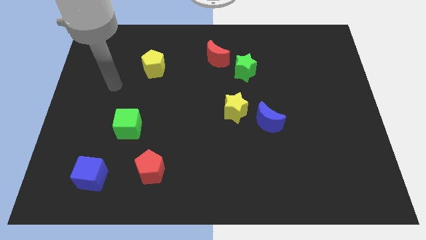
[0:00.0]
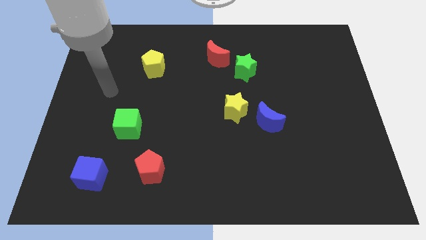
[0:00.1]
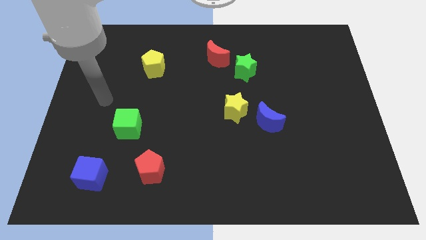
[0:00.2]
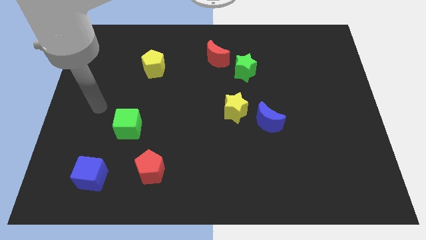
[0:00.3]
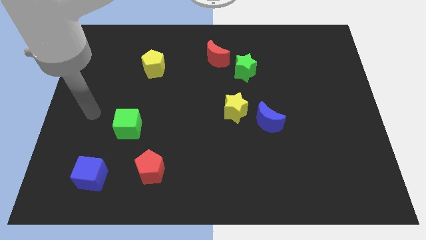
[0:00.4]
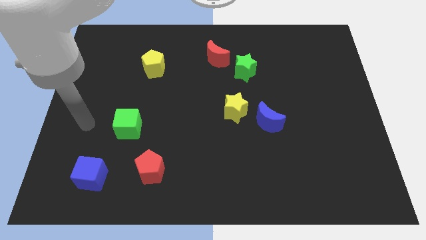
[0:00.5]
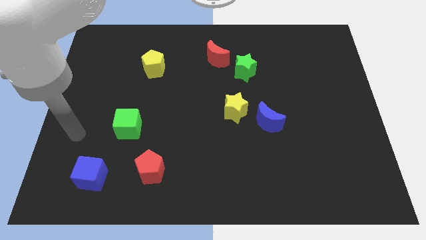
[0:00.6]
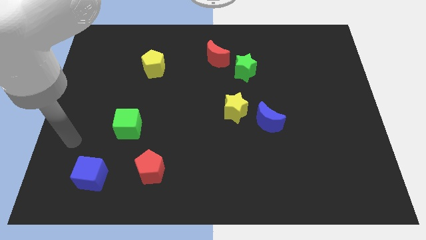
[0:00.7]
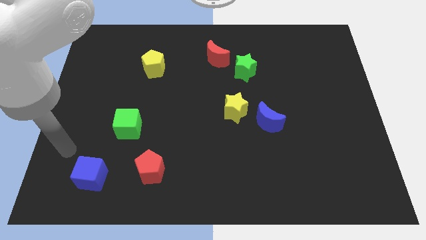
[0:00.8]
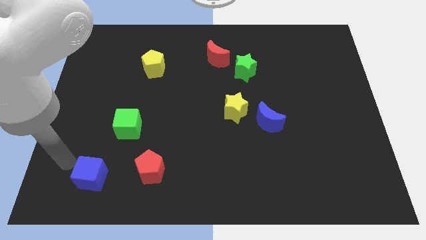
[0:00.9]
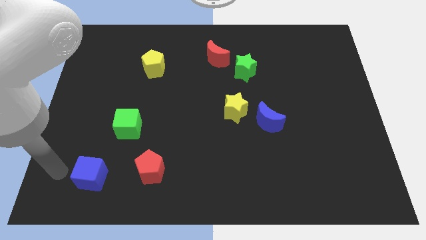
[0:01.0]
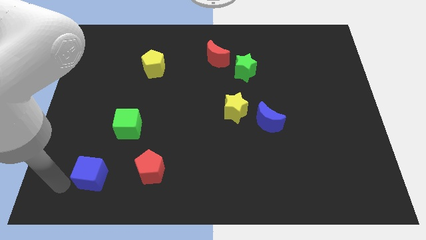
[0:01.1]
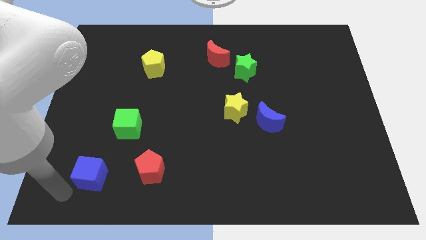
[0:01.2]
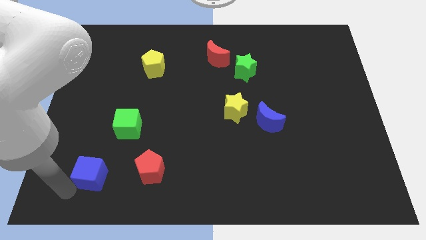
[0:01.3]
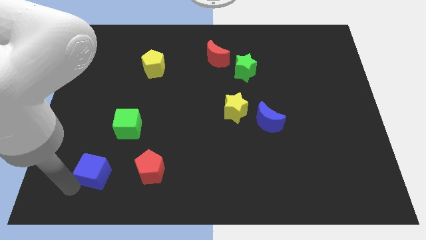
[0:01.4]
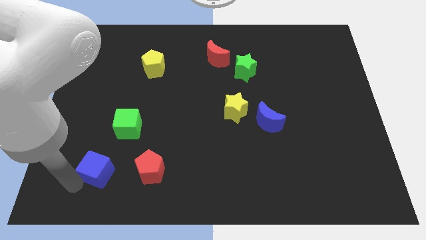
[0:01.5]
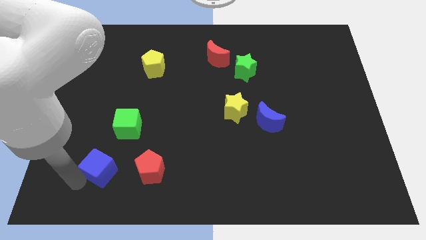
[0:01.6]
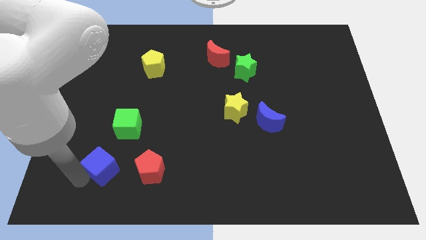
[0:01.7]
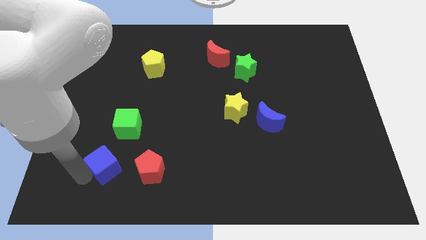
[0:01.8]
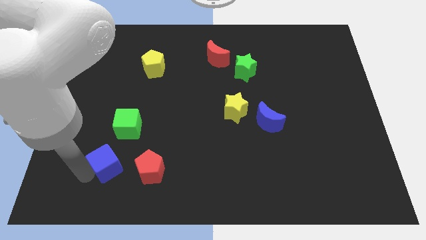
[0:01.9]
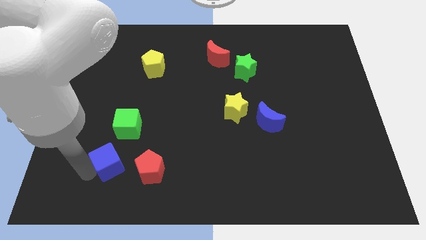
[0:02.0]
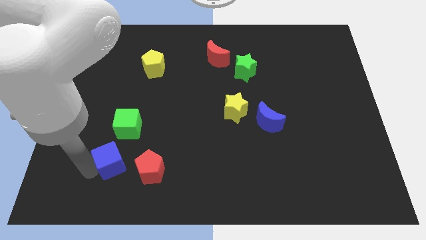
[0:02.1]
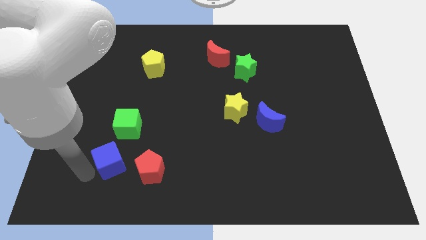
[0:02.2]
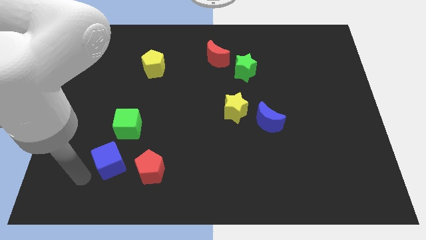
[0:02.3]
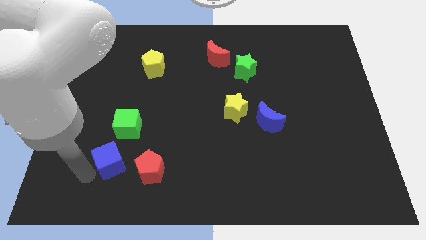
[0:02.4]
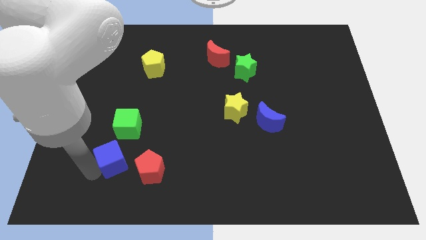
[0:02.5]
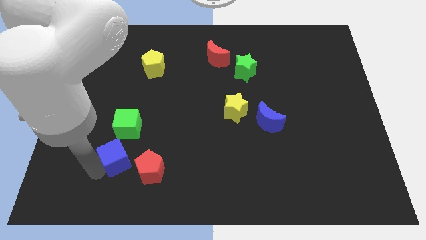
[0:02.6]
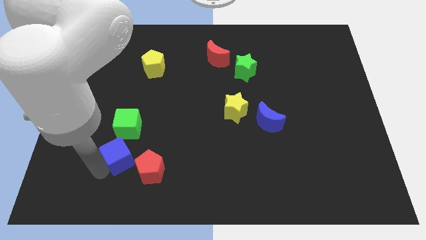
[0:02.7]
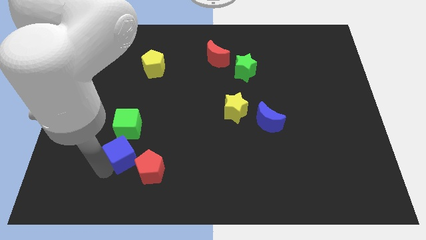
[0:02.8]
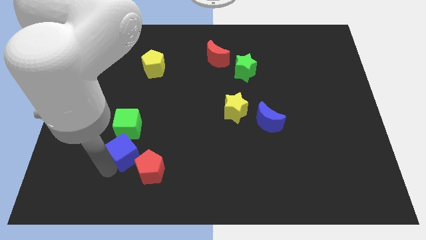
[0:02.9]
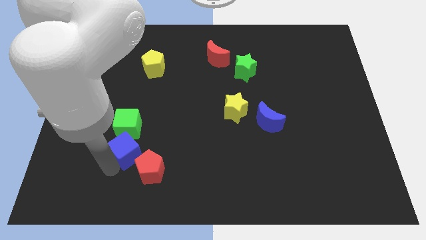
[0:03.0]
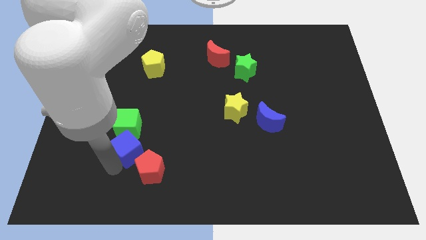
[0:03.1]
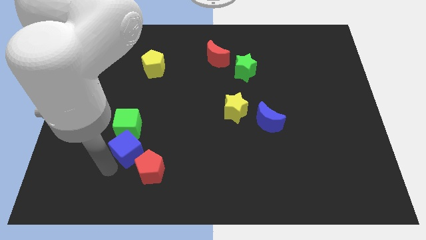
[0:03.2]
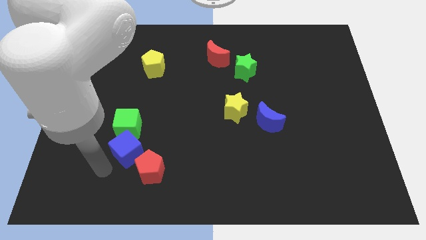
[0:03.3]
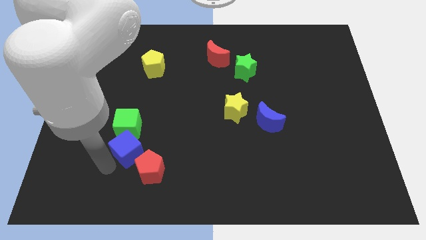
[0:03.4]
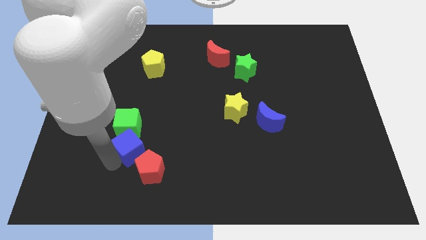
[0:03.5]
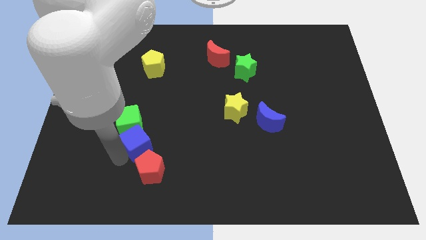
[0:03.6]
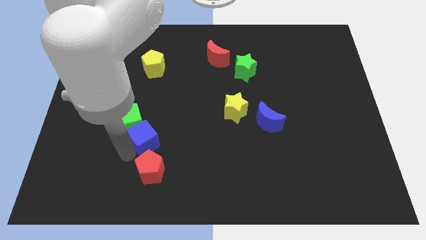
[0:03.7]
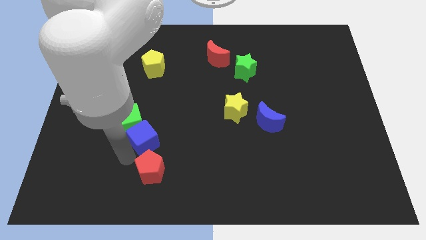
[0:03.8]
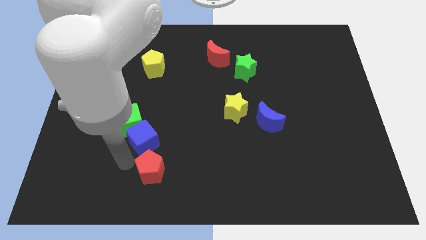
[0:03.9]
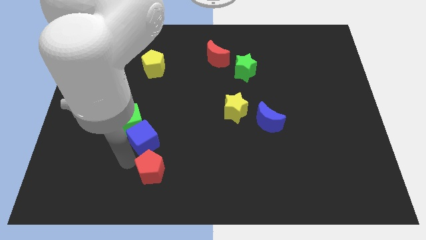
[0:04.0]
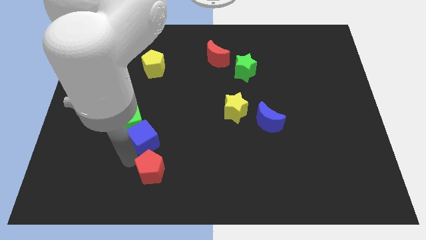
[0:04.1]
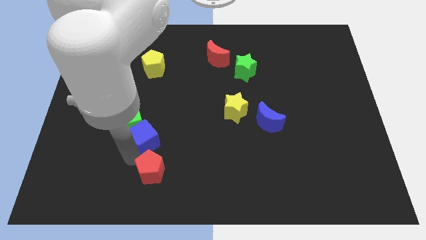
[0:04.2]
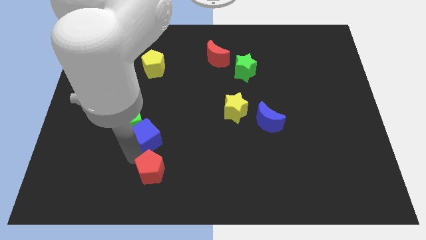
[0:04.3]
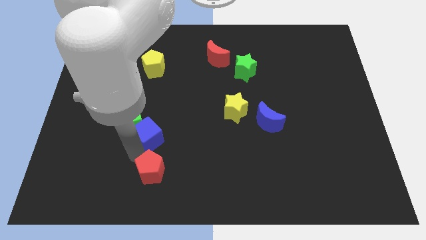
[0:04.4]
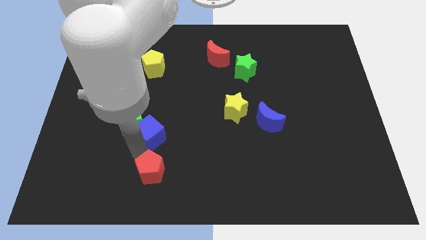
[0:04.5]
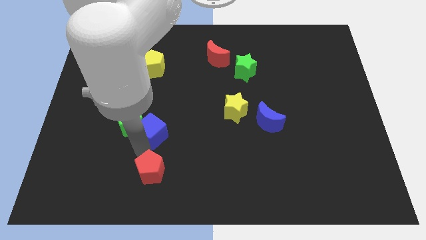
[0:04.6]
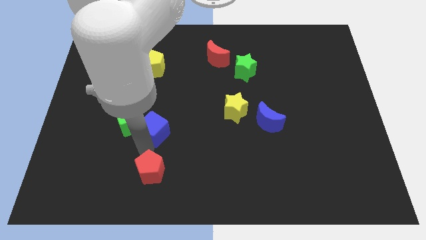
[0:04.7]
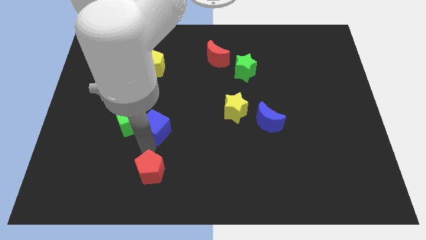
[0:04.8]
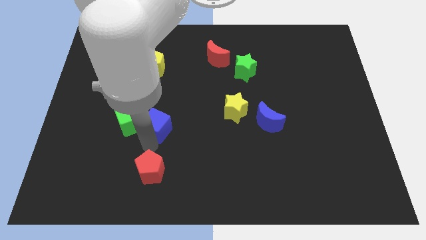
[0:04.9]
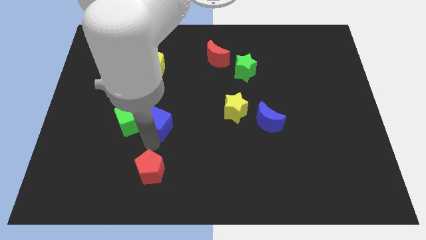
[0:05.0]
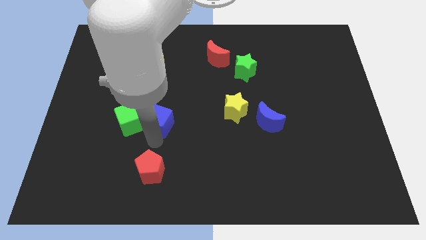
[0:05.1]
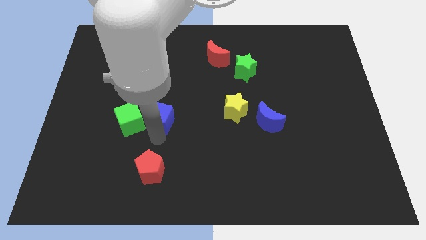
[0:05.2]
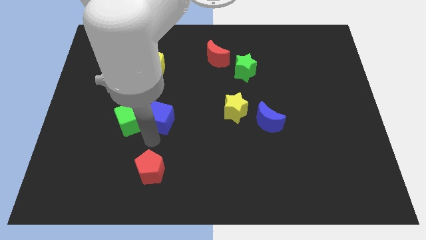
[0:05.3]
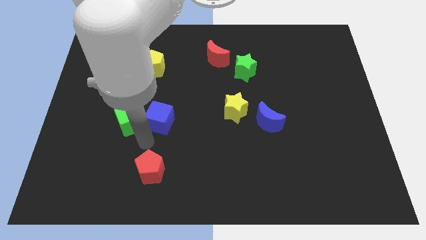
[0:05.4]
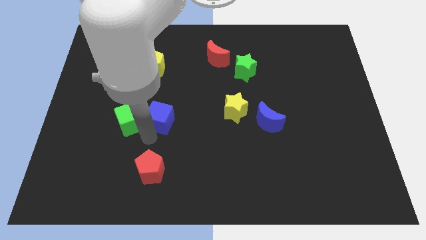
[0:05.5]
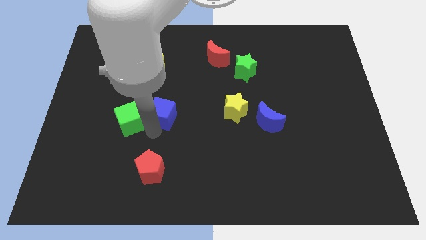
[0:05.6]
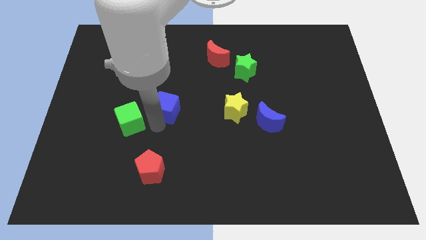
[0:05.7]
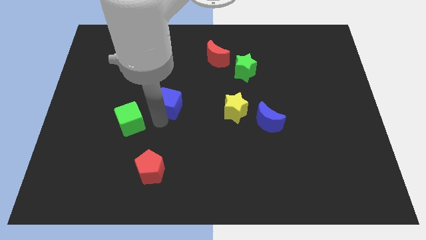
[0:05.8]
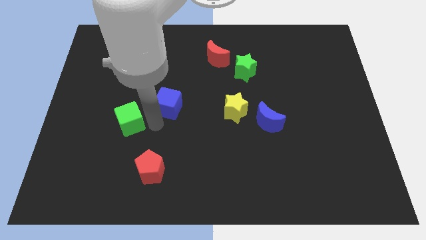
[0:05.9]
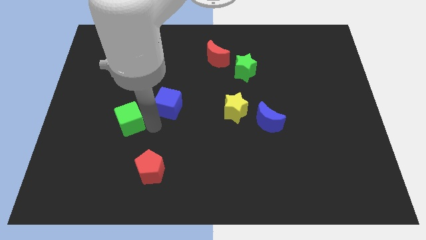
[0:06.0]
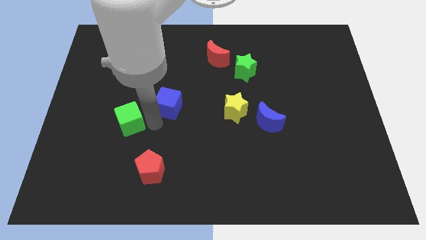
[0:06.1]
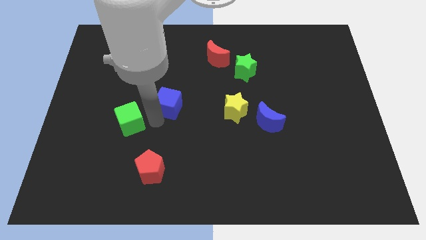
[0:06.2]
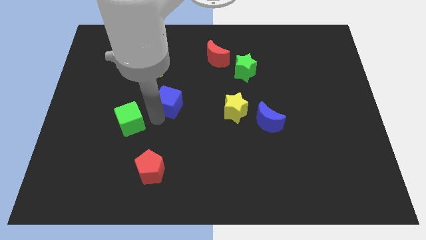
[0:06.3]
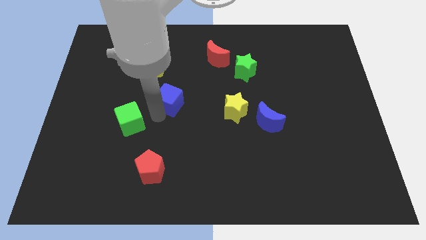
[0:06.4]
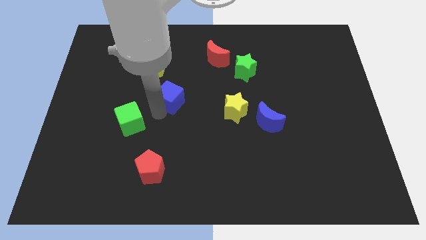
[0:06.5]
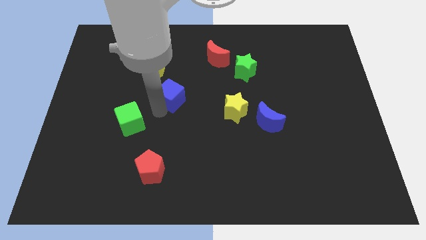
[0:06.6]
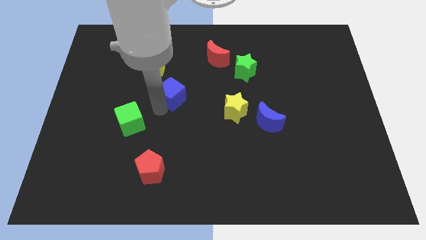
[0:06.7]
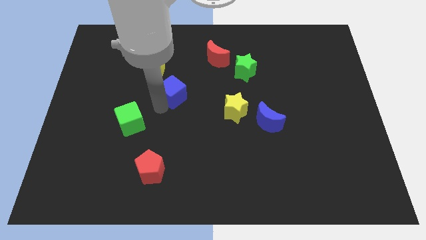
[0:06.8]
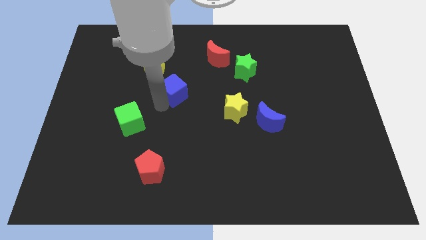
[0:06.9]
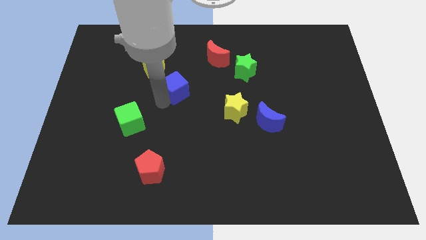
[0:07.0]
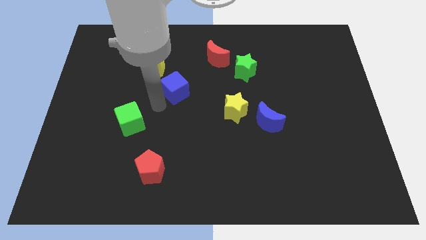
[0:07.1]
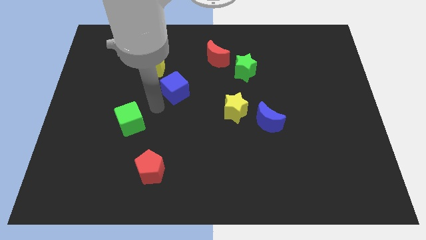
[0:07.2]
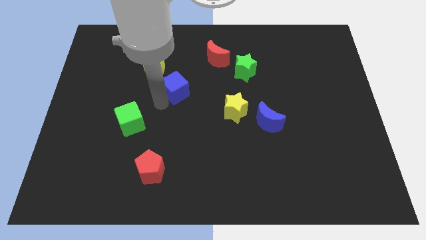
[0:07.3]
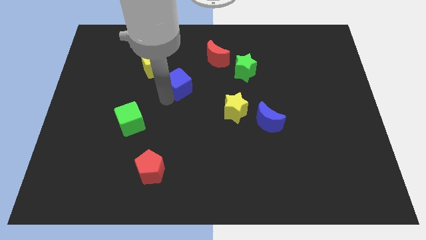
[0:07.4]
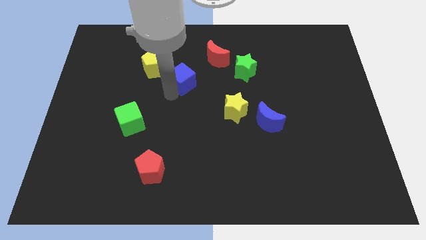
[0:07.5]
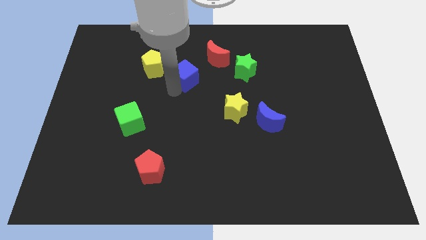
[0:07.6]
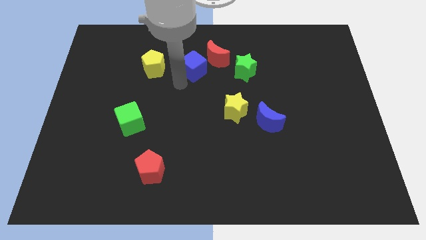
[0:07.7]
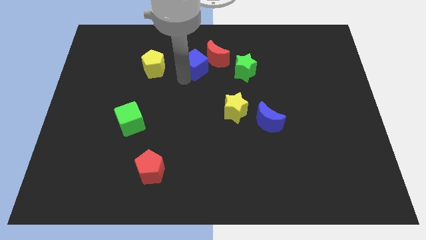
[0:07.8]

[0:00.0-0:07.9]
move the blue cube close to the red moon
